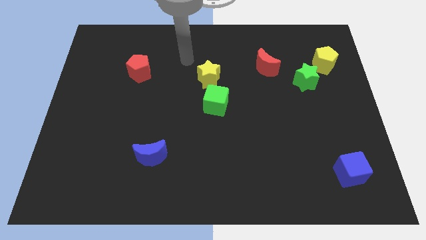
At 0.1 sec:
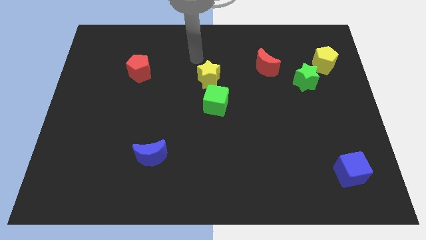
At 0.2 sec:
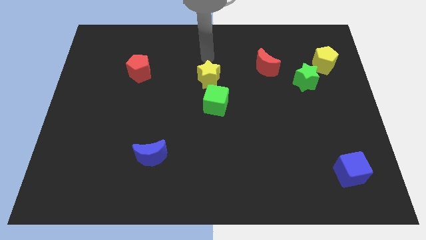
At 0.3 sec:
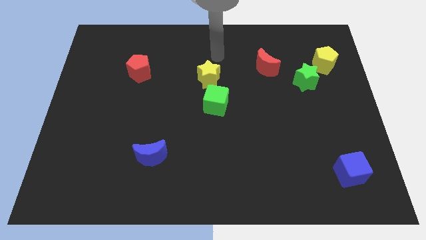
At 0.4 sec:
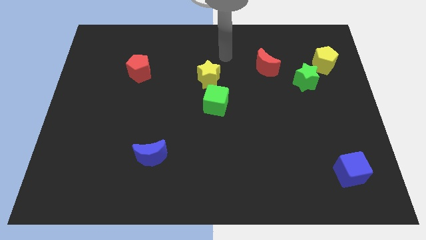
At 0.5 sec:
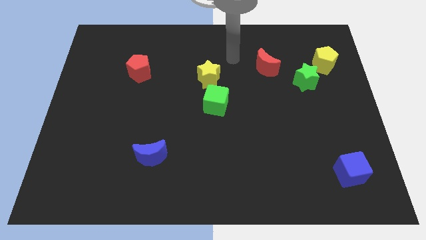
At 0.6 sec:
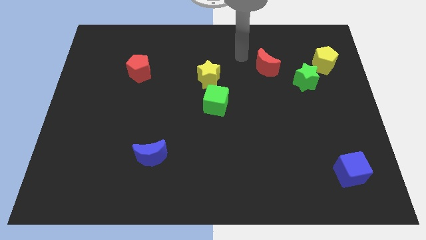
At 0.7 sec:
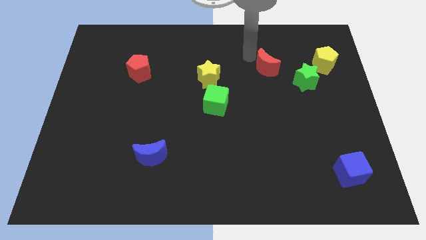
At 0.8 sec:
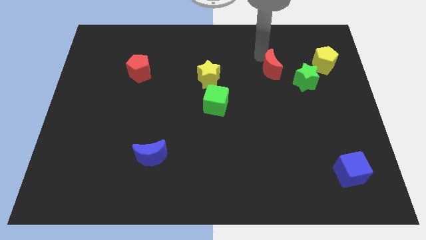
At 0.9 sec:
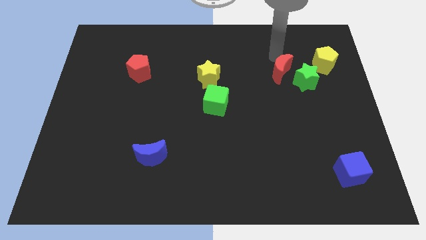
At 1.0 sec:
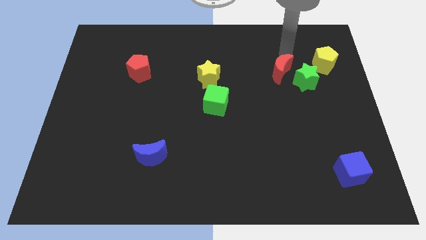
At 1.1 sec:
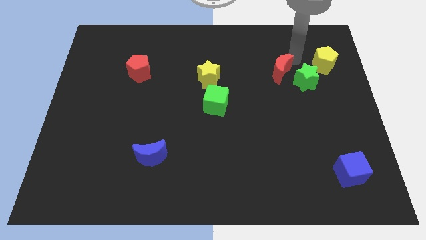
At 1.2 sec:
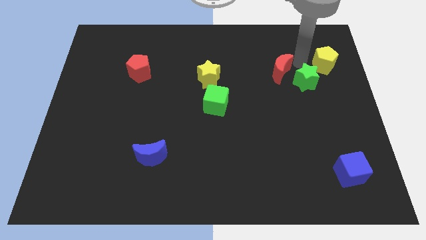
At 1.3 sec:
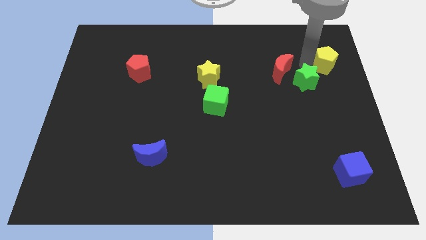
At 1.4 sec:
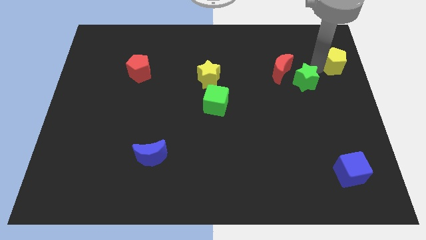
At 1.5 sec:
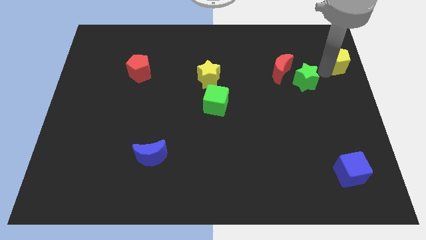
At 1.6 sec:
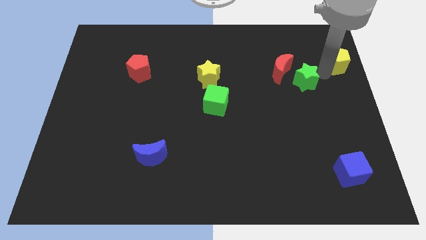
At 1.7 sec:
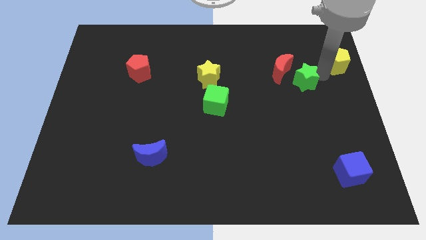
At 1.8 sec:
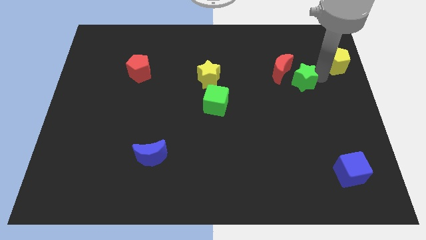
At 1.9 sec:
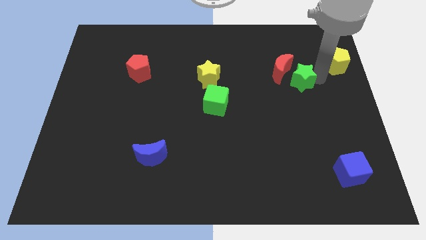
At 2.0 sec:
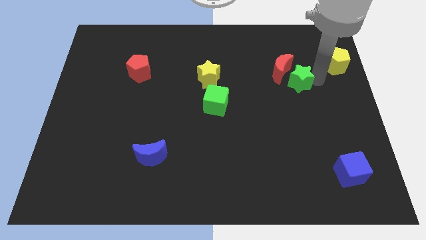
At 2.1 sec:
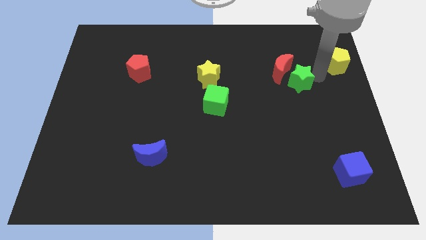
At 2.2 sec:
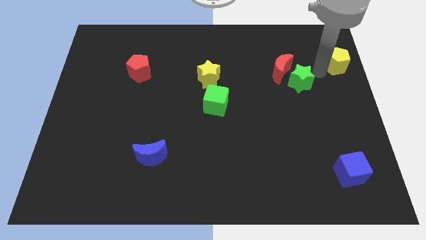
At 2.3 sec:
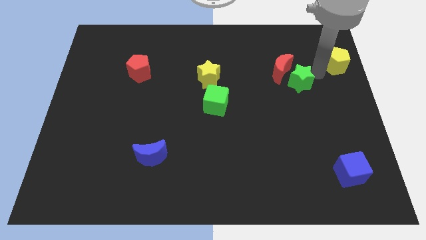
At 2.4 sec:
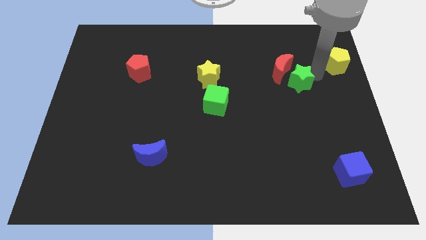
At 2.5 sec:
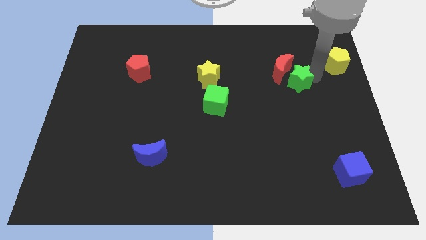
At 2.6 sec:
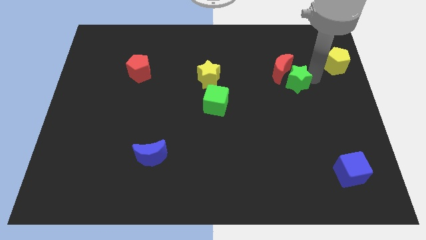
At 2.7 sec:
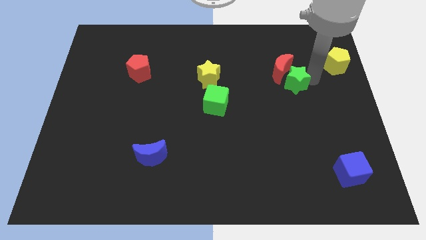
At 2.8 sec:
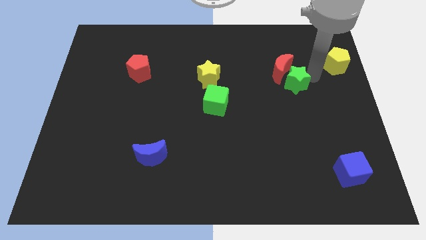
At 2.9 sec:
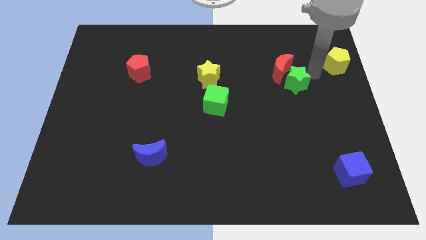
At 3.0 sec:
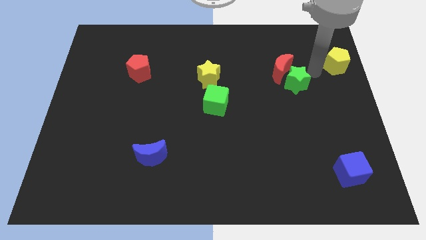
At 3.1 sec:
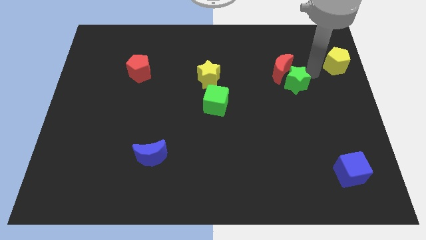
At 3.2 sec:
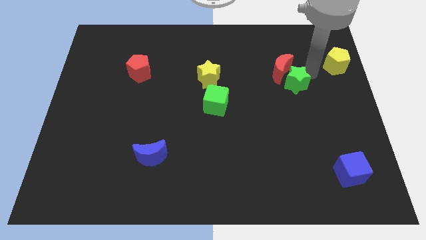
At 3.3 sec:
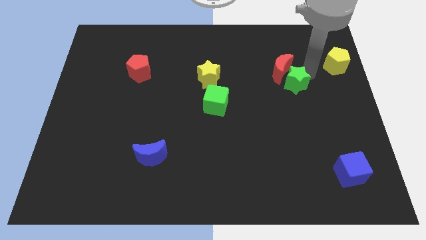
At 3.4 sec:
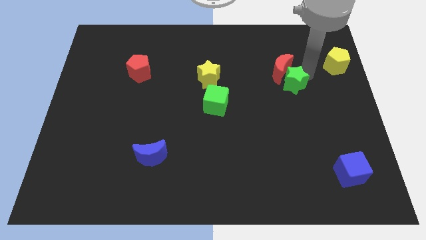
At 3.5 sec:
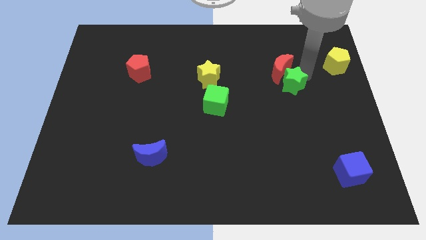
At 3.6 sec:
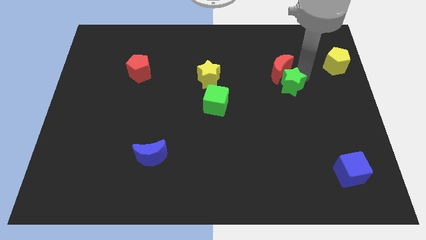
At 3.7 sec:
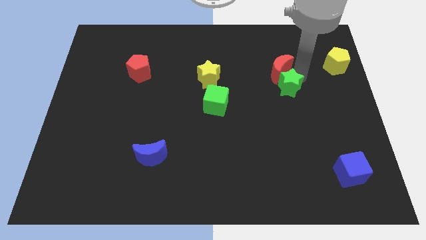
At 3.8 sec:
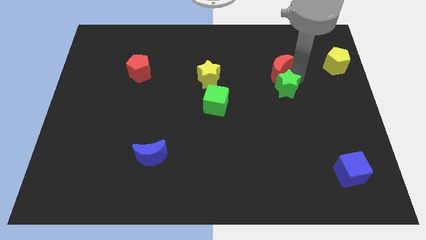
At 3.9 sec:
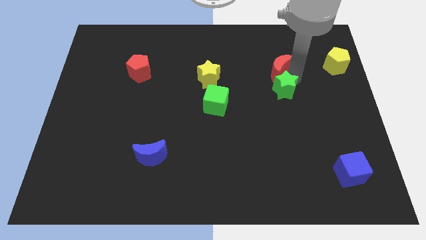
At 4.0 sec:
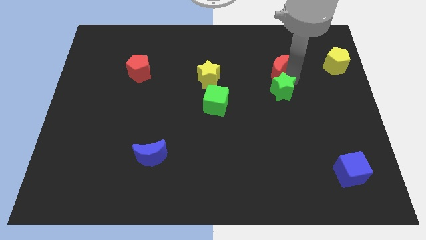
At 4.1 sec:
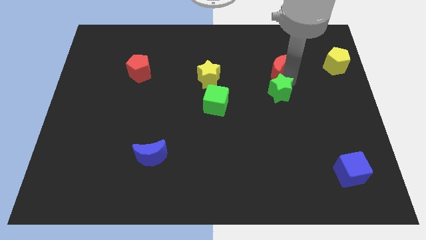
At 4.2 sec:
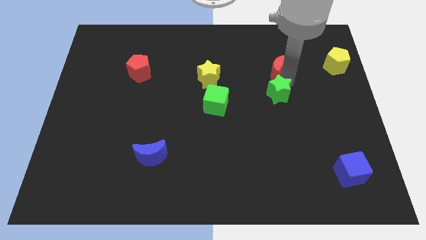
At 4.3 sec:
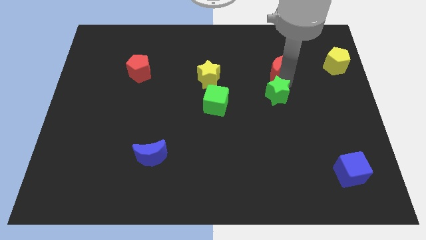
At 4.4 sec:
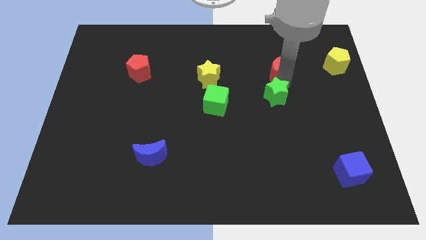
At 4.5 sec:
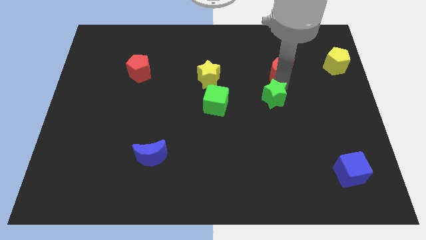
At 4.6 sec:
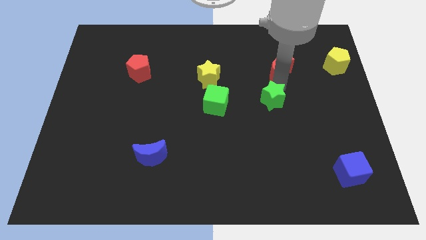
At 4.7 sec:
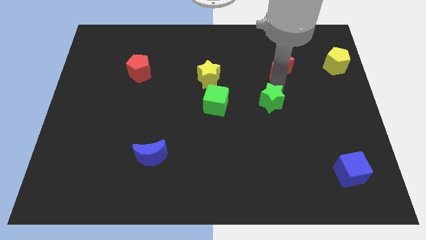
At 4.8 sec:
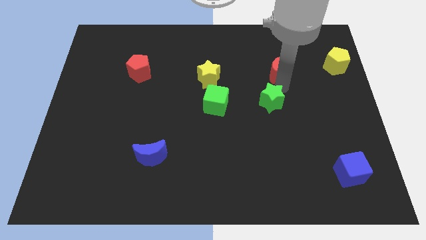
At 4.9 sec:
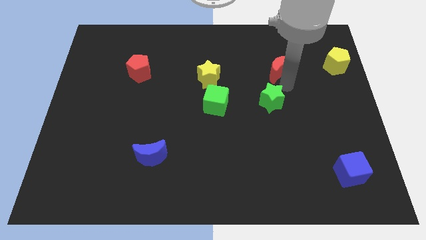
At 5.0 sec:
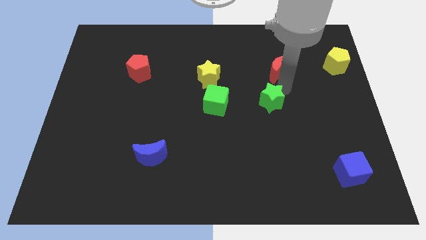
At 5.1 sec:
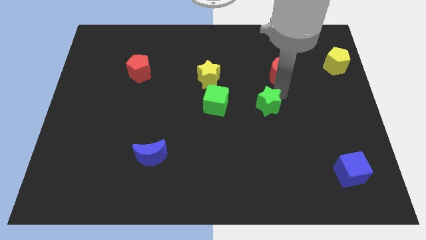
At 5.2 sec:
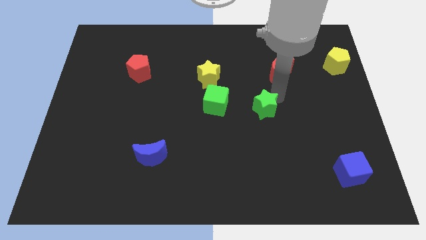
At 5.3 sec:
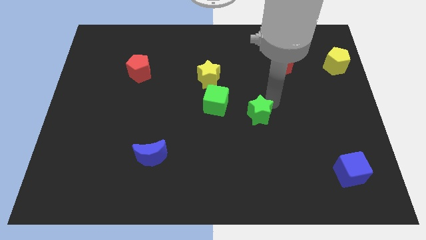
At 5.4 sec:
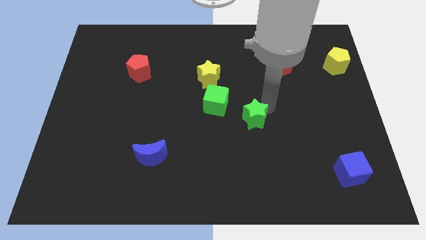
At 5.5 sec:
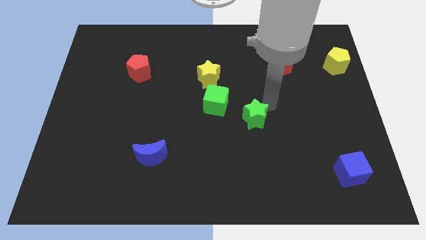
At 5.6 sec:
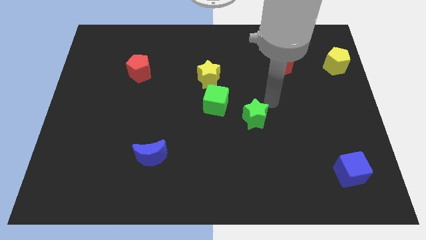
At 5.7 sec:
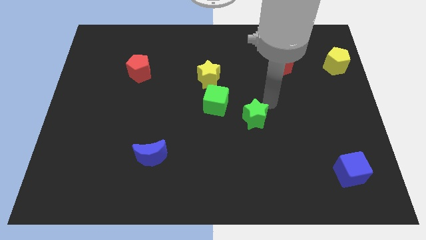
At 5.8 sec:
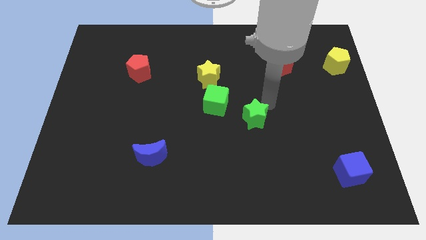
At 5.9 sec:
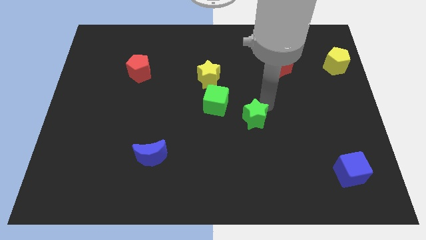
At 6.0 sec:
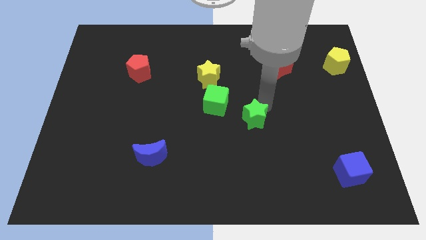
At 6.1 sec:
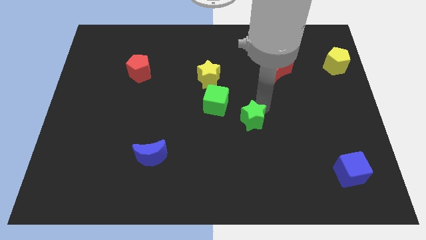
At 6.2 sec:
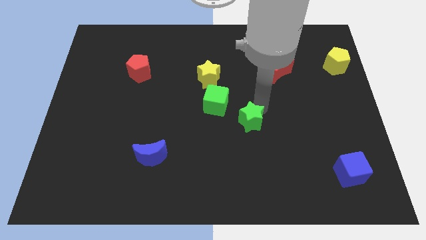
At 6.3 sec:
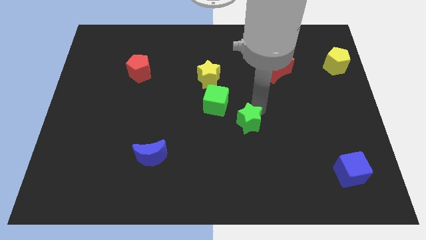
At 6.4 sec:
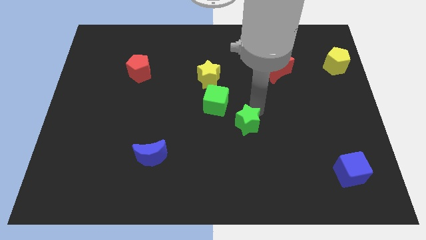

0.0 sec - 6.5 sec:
move the green star down and left

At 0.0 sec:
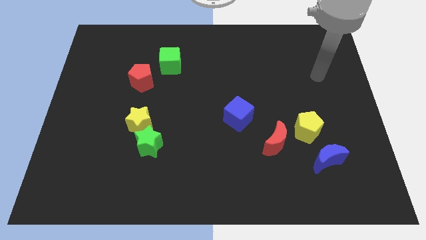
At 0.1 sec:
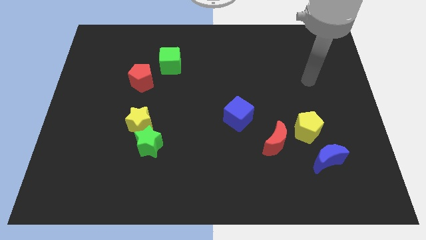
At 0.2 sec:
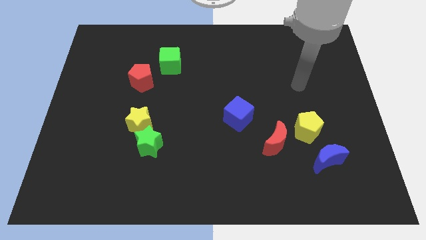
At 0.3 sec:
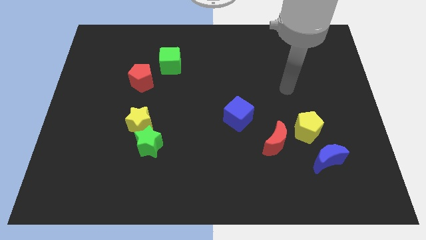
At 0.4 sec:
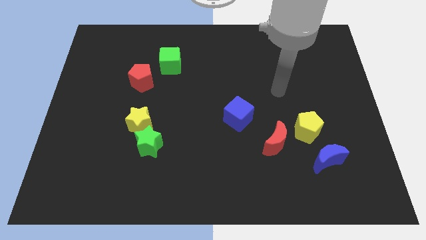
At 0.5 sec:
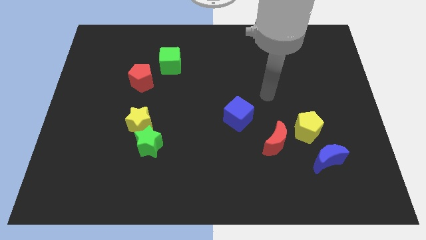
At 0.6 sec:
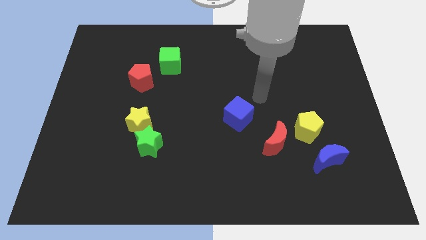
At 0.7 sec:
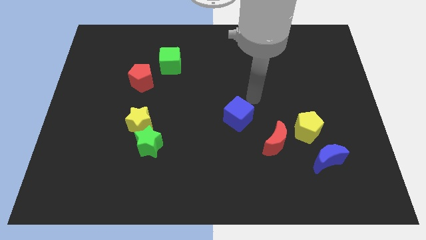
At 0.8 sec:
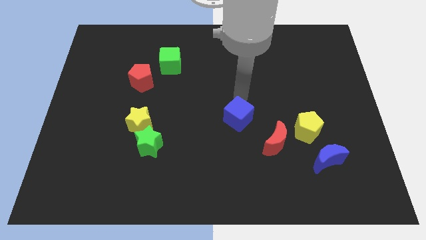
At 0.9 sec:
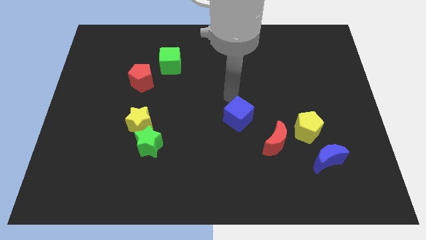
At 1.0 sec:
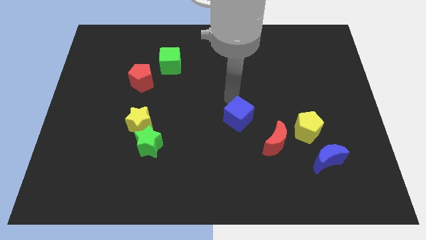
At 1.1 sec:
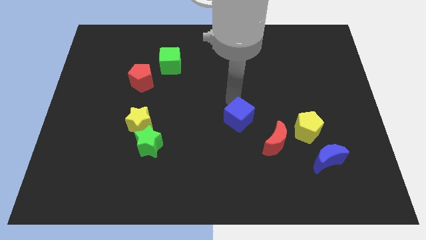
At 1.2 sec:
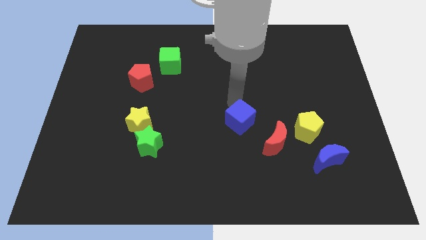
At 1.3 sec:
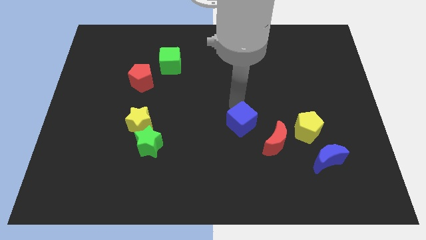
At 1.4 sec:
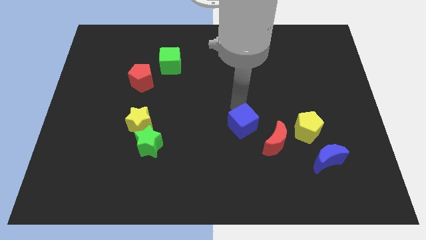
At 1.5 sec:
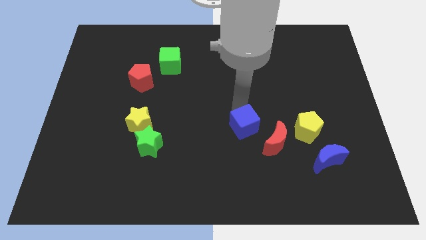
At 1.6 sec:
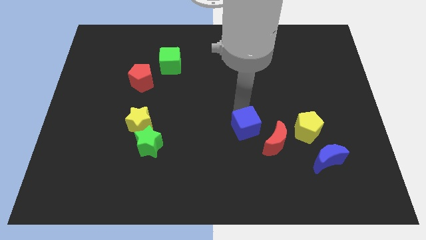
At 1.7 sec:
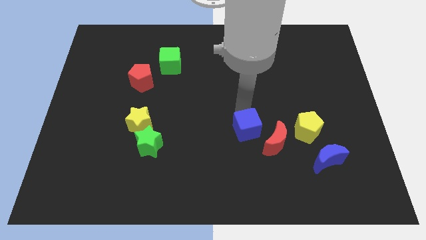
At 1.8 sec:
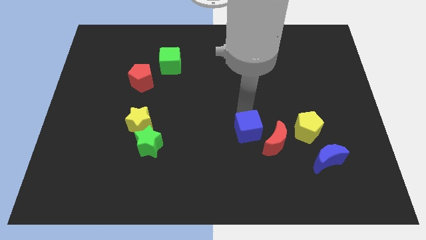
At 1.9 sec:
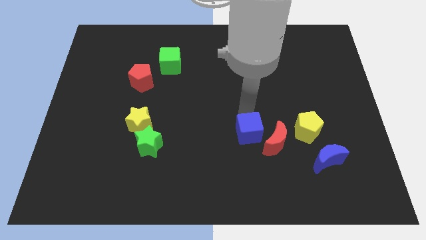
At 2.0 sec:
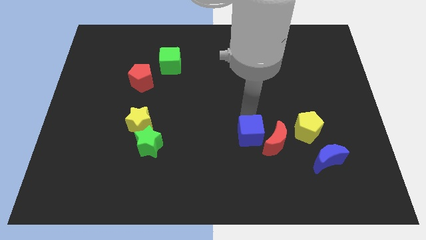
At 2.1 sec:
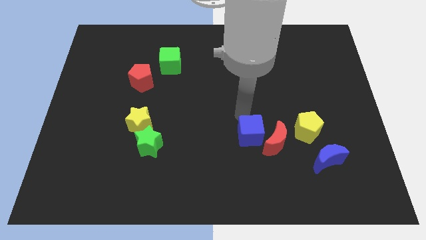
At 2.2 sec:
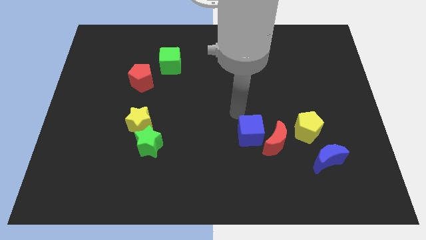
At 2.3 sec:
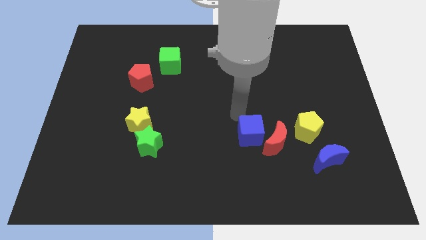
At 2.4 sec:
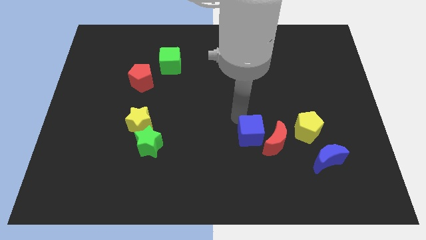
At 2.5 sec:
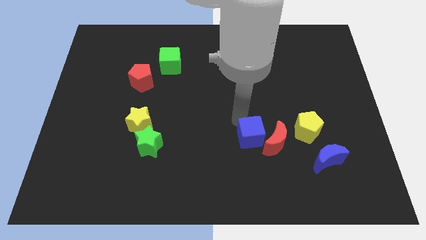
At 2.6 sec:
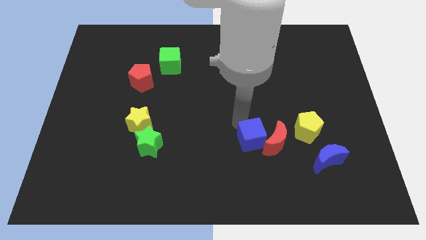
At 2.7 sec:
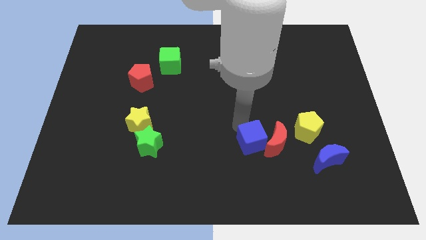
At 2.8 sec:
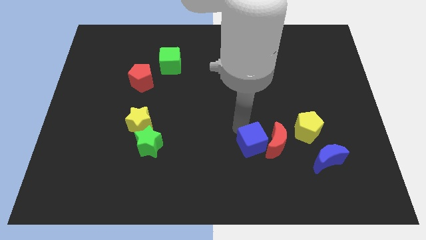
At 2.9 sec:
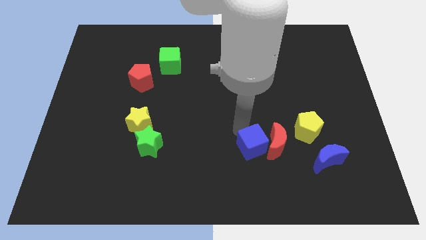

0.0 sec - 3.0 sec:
slide the blue cube a bit diagonally down and right
